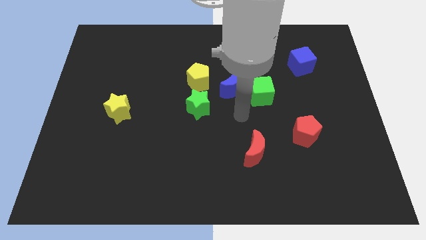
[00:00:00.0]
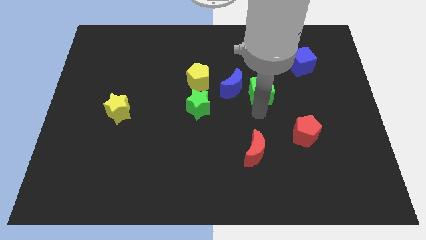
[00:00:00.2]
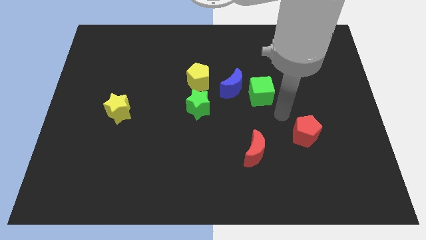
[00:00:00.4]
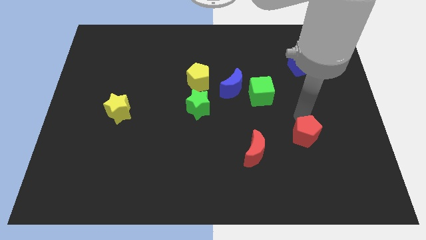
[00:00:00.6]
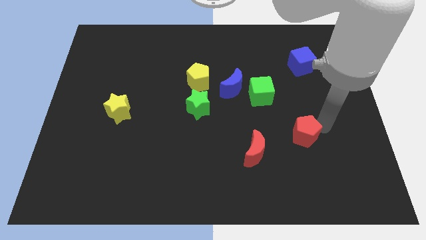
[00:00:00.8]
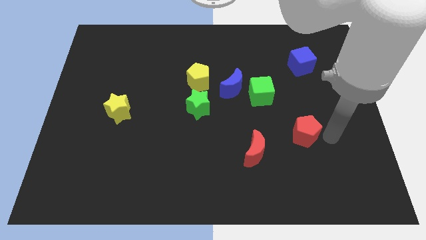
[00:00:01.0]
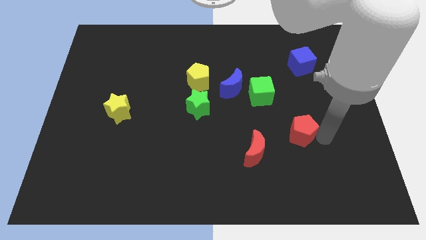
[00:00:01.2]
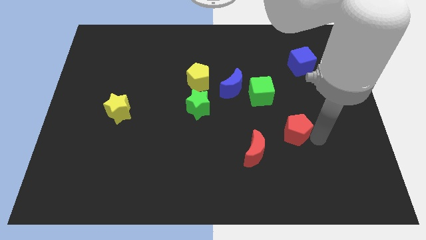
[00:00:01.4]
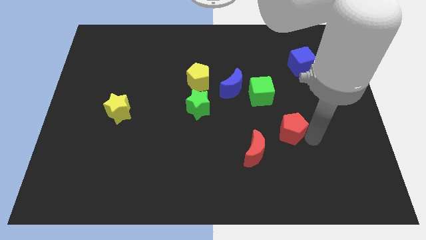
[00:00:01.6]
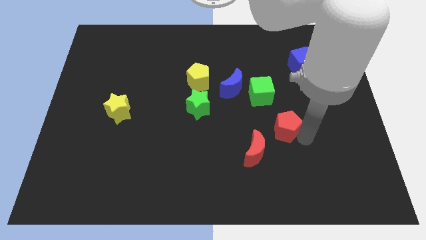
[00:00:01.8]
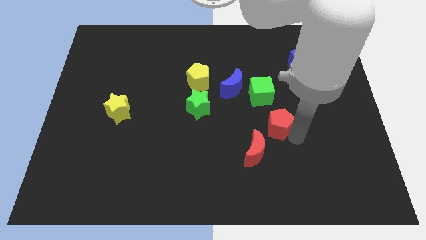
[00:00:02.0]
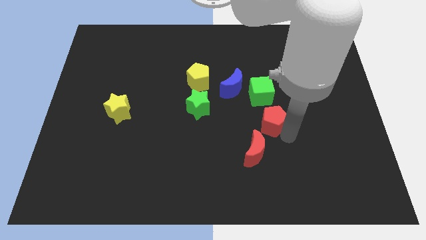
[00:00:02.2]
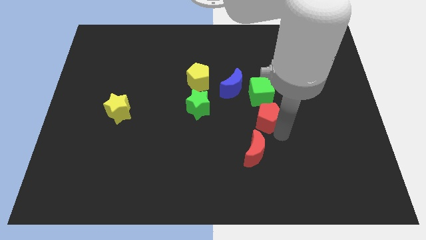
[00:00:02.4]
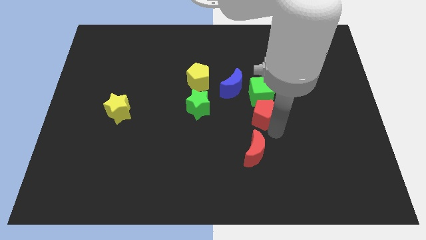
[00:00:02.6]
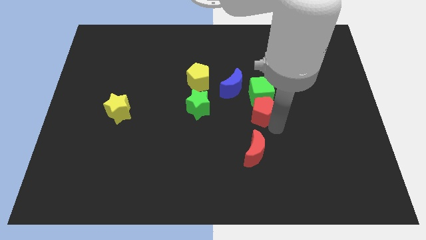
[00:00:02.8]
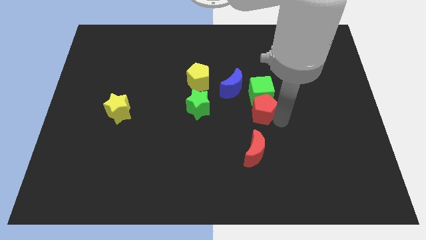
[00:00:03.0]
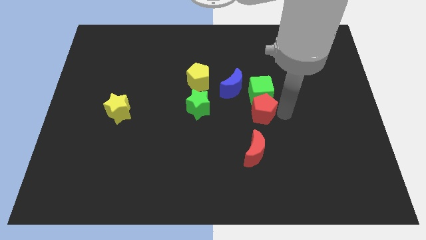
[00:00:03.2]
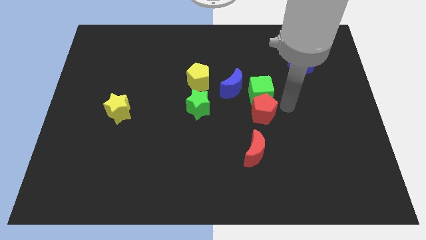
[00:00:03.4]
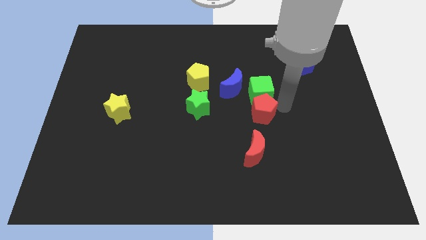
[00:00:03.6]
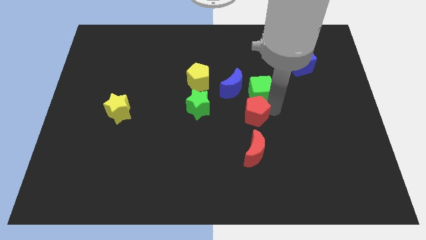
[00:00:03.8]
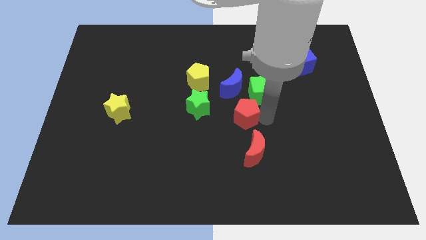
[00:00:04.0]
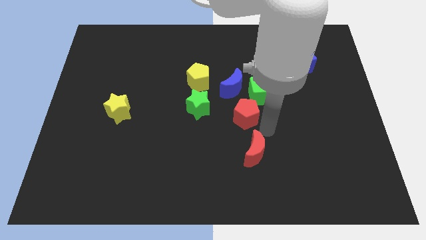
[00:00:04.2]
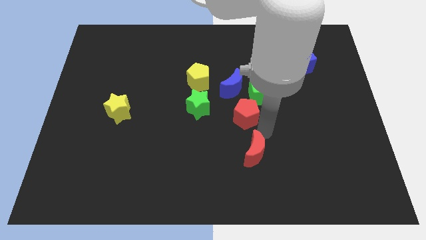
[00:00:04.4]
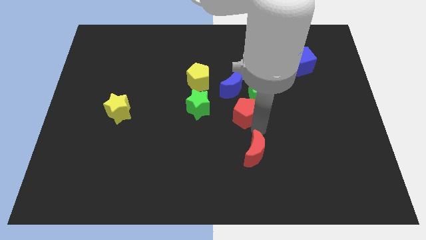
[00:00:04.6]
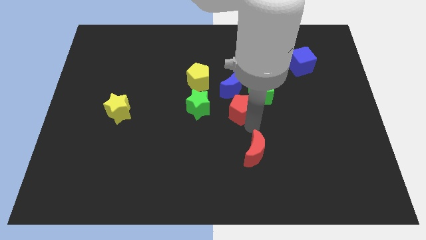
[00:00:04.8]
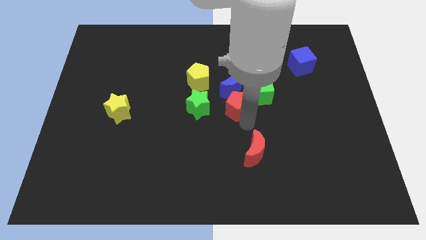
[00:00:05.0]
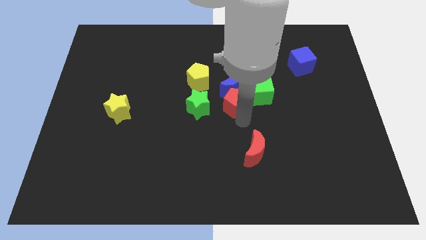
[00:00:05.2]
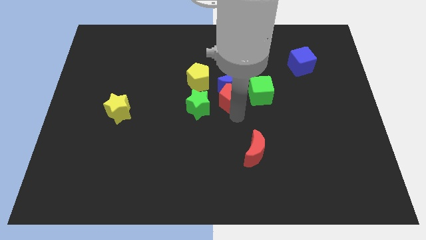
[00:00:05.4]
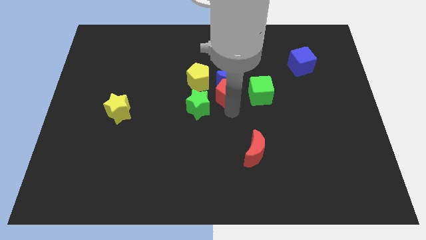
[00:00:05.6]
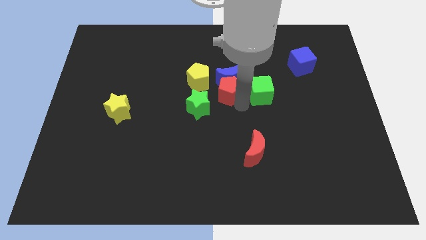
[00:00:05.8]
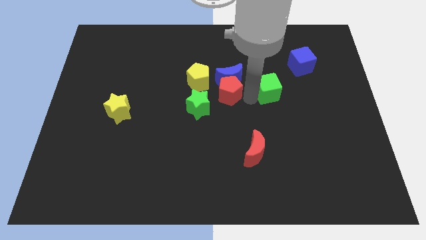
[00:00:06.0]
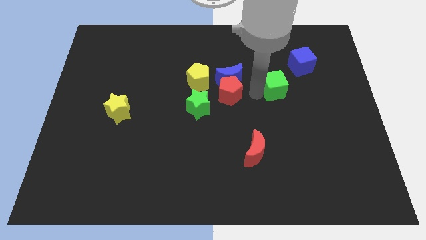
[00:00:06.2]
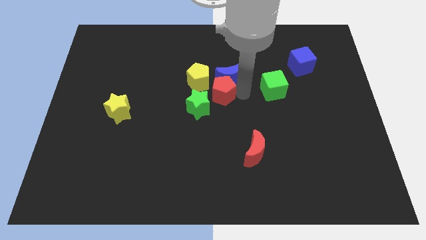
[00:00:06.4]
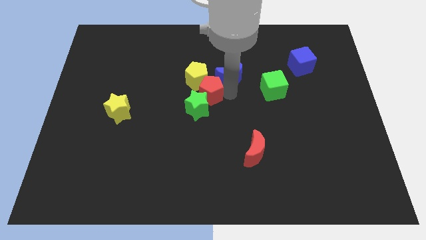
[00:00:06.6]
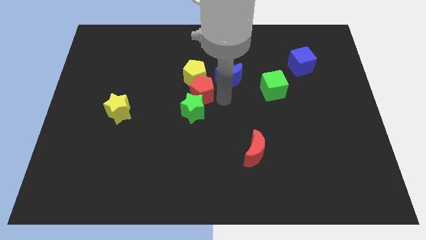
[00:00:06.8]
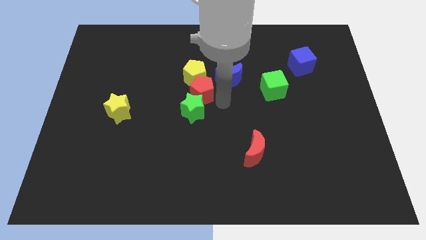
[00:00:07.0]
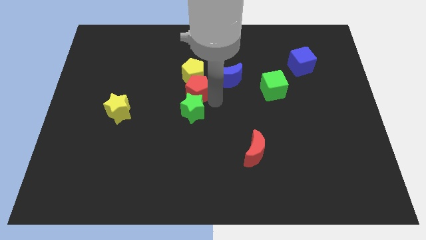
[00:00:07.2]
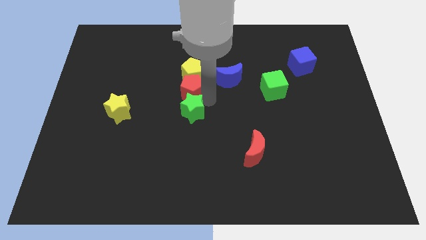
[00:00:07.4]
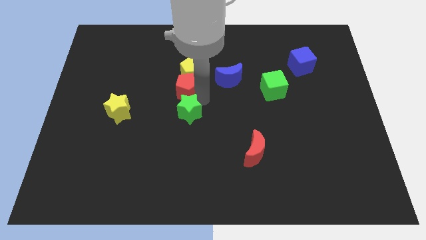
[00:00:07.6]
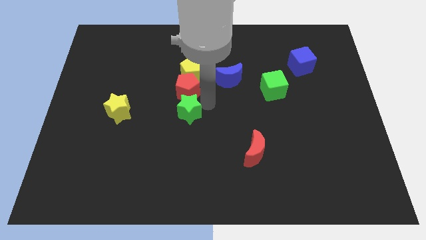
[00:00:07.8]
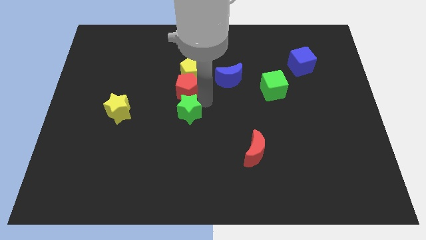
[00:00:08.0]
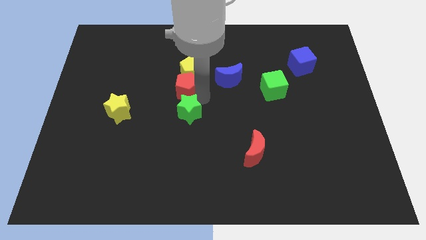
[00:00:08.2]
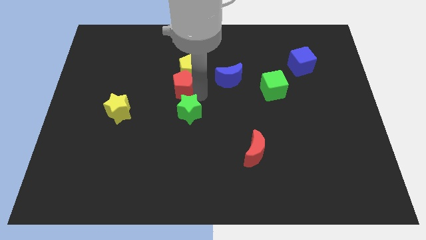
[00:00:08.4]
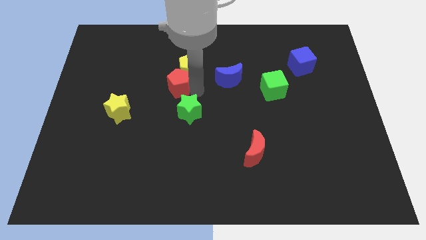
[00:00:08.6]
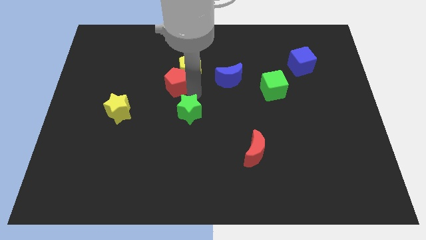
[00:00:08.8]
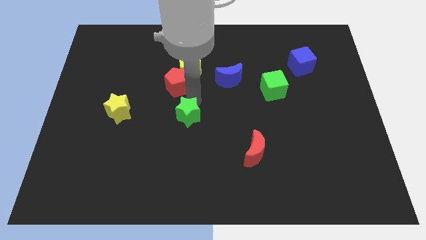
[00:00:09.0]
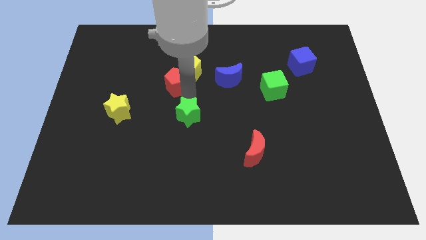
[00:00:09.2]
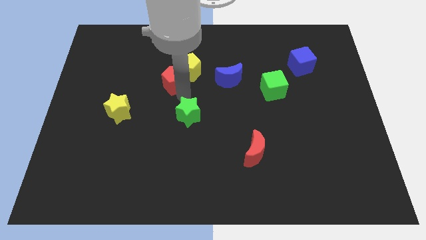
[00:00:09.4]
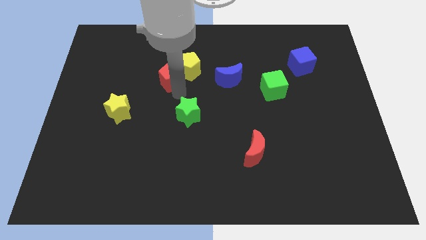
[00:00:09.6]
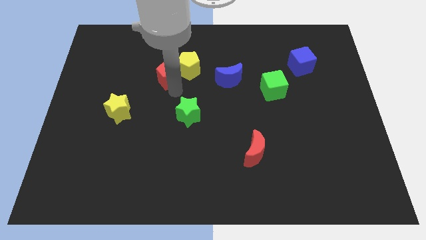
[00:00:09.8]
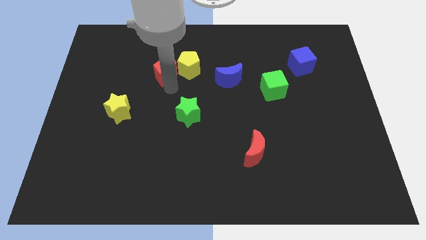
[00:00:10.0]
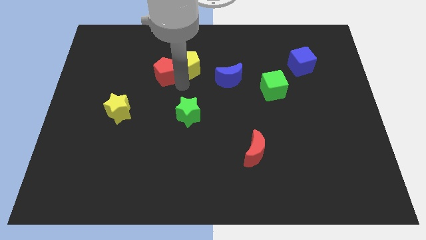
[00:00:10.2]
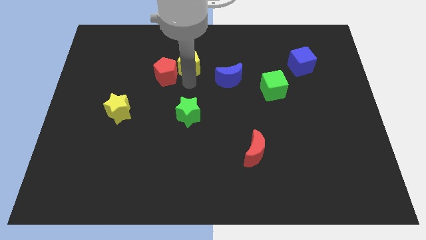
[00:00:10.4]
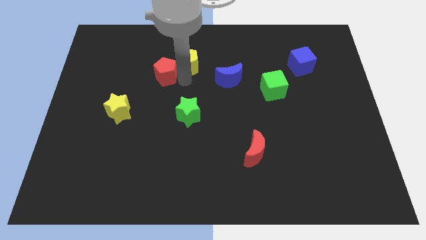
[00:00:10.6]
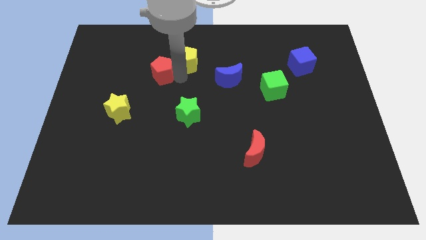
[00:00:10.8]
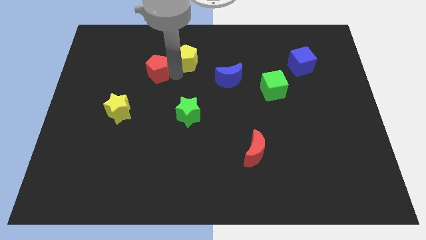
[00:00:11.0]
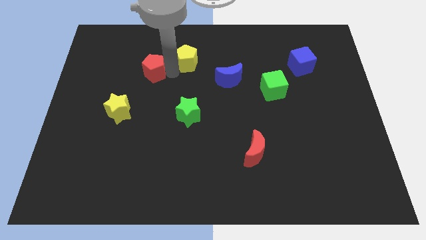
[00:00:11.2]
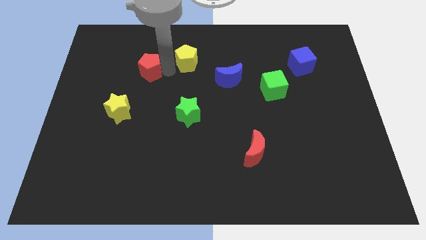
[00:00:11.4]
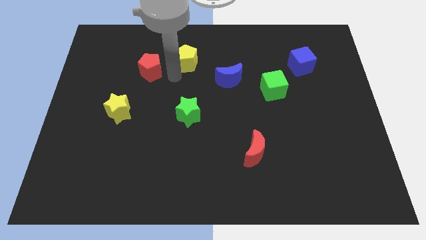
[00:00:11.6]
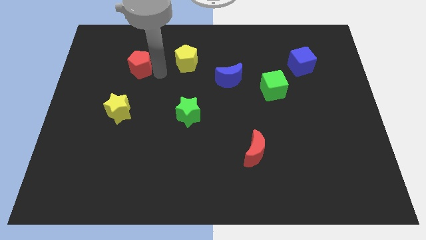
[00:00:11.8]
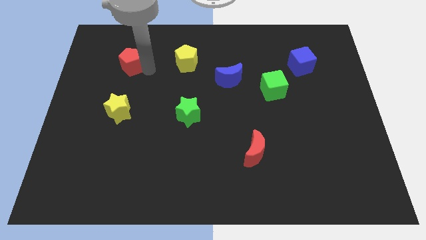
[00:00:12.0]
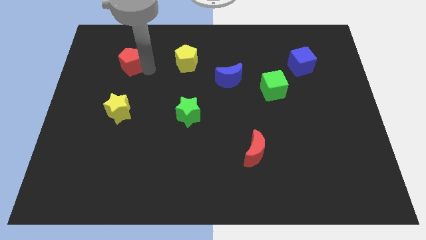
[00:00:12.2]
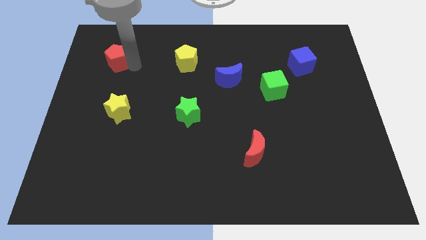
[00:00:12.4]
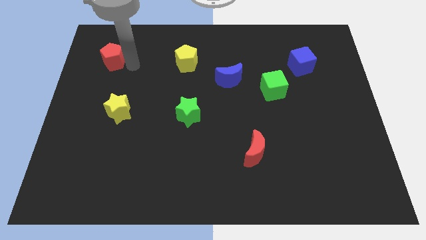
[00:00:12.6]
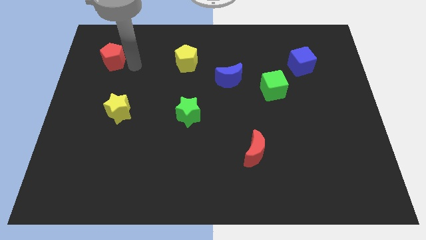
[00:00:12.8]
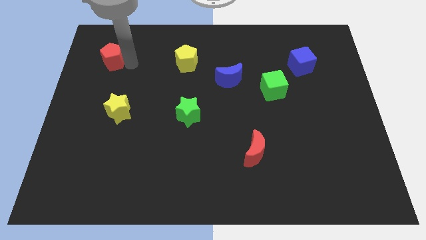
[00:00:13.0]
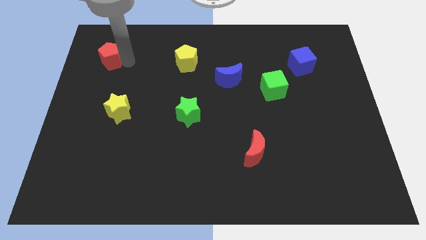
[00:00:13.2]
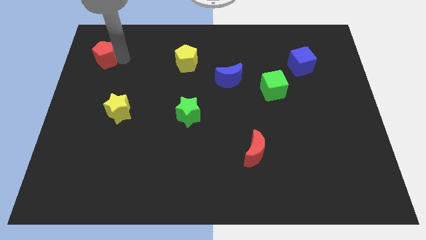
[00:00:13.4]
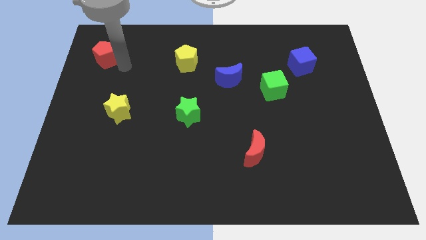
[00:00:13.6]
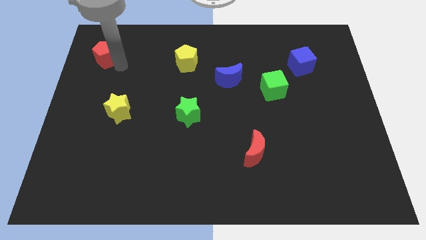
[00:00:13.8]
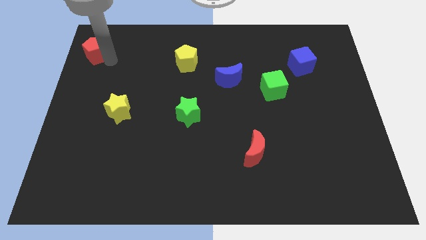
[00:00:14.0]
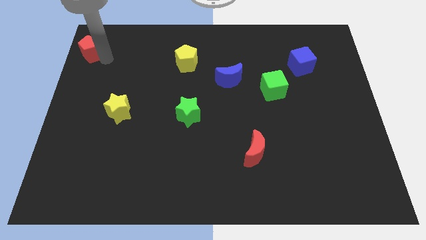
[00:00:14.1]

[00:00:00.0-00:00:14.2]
slide the red pentagon to the top left of the board
